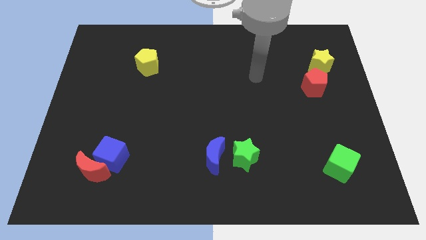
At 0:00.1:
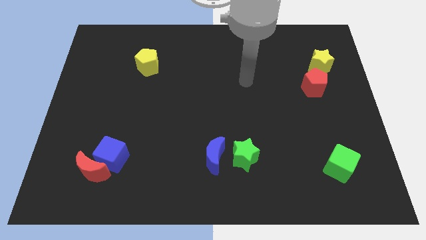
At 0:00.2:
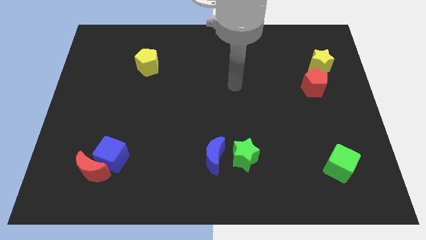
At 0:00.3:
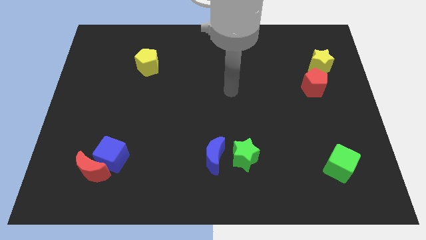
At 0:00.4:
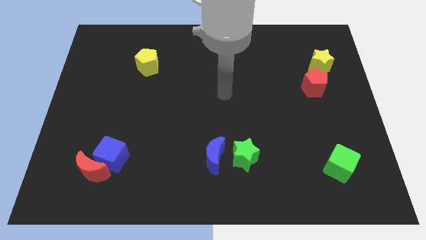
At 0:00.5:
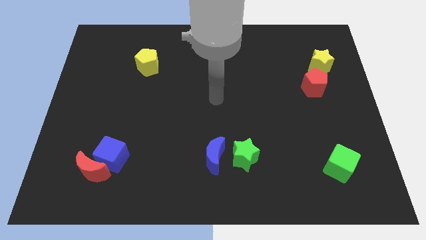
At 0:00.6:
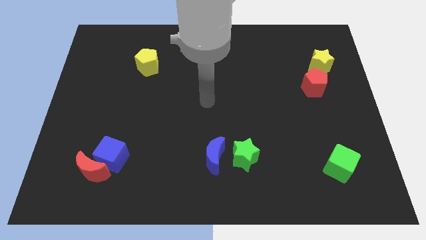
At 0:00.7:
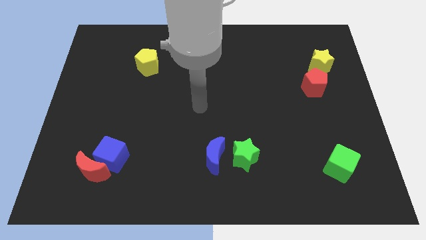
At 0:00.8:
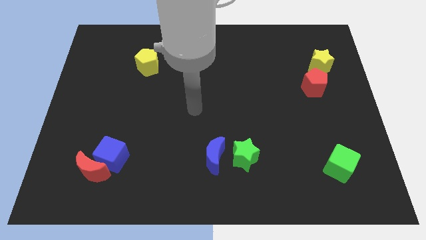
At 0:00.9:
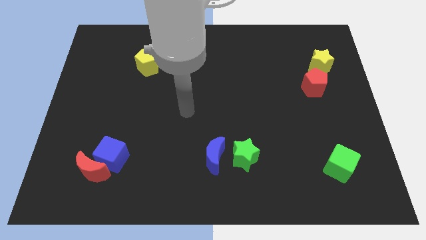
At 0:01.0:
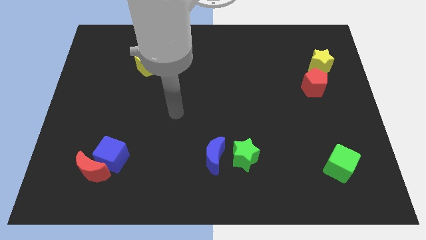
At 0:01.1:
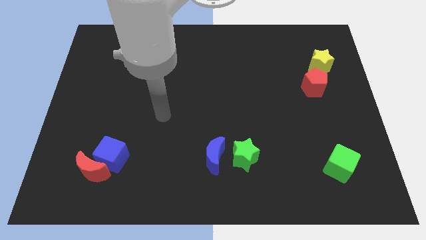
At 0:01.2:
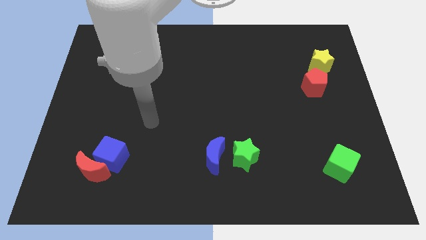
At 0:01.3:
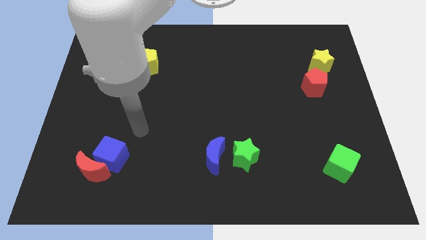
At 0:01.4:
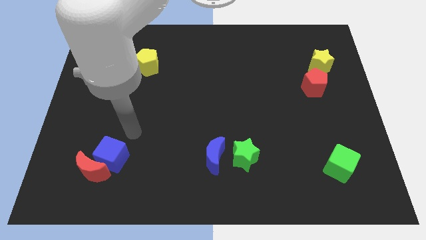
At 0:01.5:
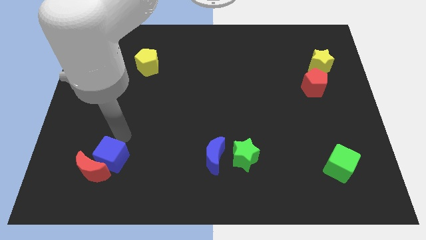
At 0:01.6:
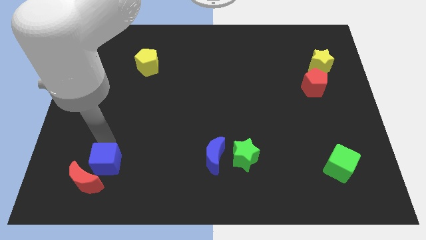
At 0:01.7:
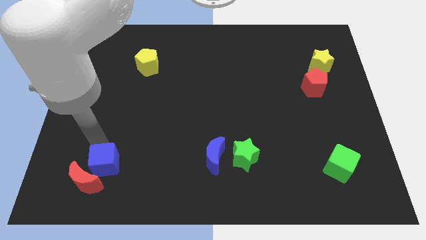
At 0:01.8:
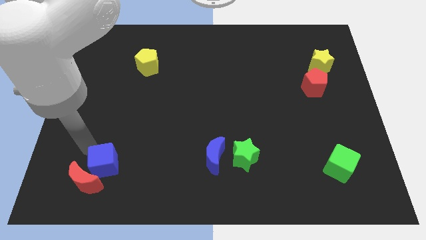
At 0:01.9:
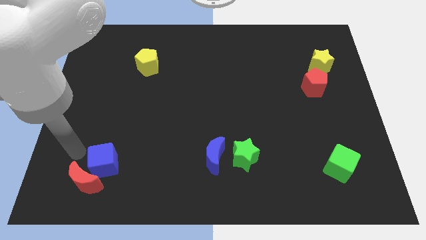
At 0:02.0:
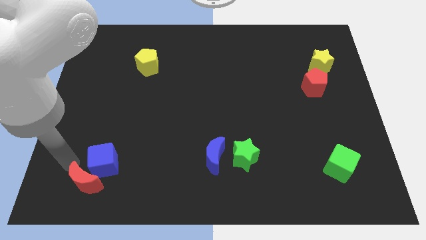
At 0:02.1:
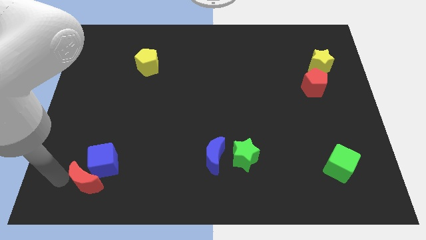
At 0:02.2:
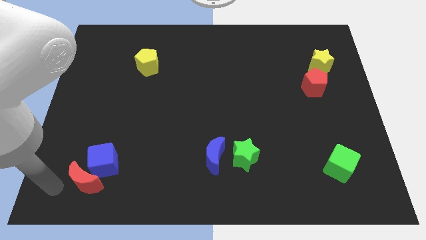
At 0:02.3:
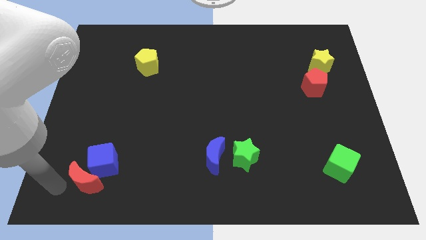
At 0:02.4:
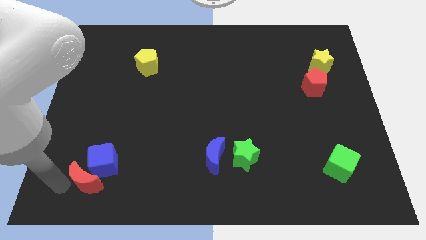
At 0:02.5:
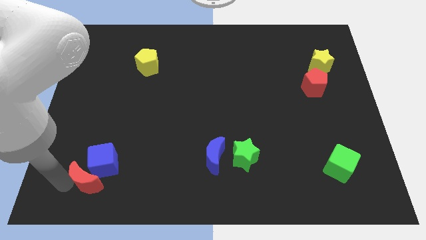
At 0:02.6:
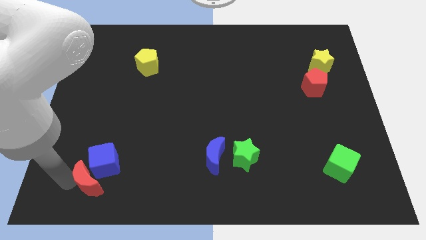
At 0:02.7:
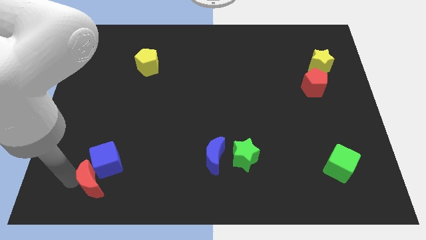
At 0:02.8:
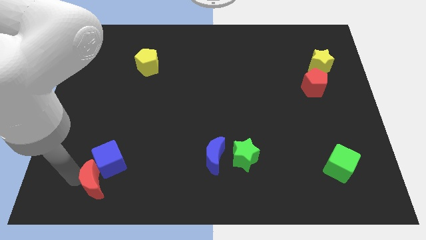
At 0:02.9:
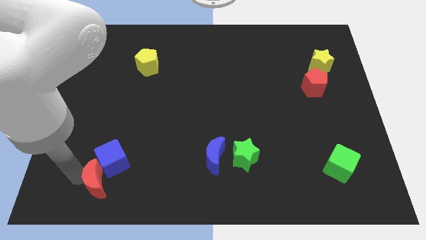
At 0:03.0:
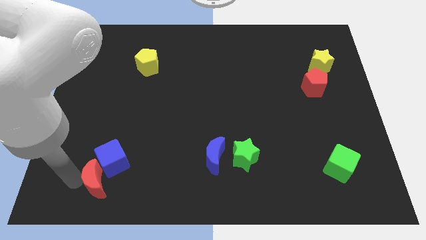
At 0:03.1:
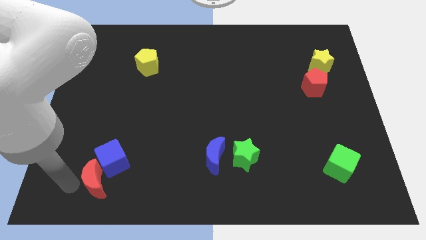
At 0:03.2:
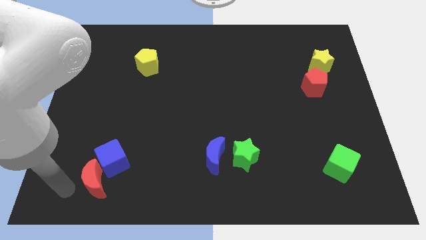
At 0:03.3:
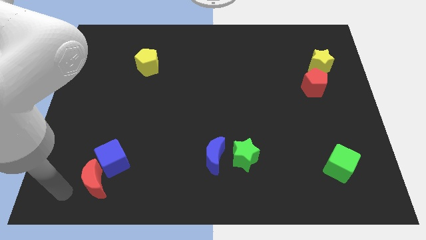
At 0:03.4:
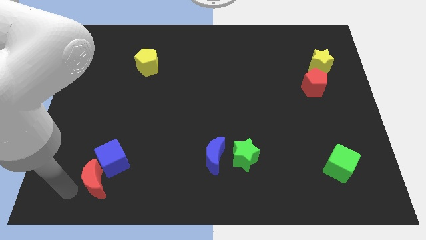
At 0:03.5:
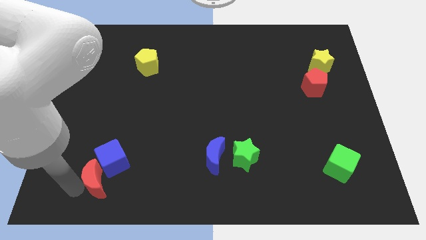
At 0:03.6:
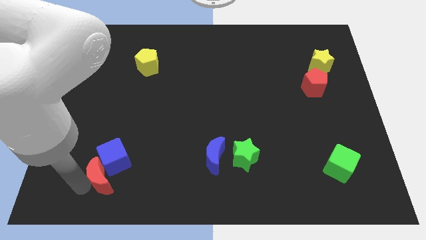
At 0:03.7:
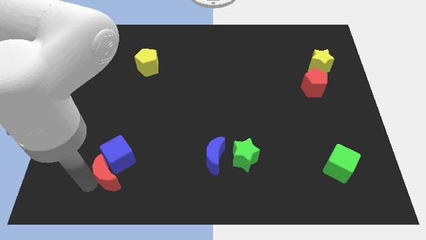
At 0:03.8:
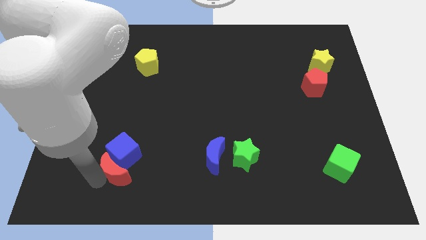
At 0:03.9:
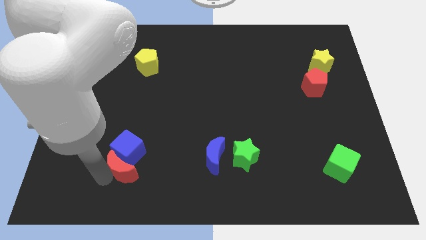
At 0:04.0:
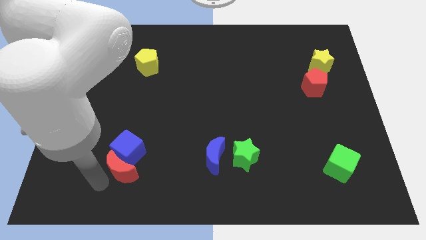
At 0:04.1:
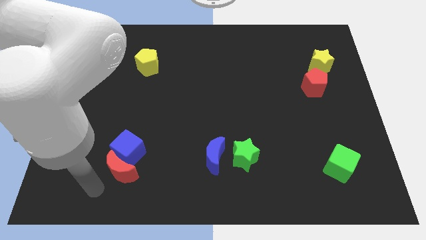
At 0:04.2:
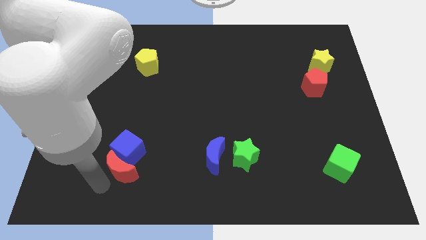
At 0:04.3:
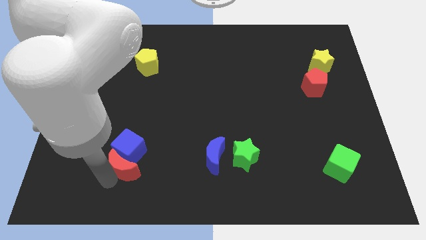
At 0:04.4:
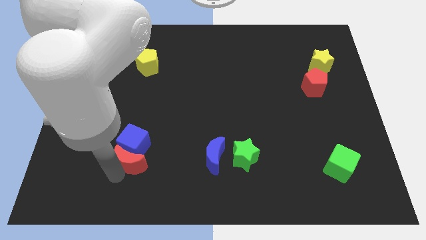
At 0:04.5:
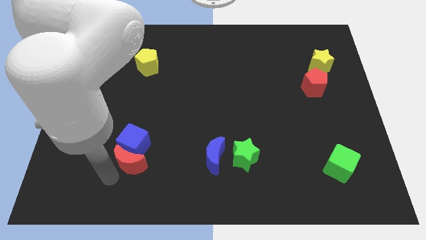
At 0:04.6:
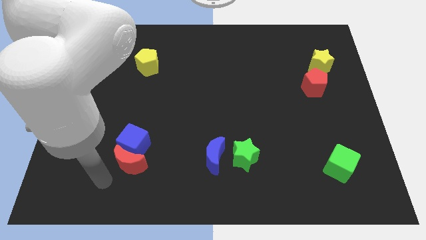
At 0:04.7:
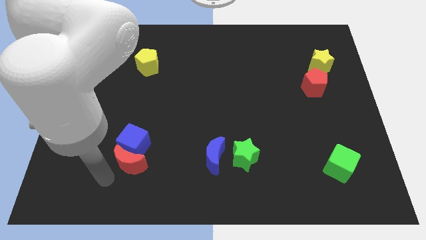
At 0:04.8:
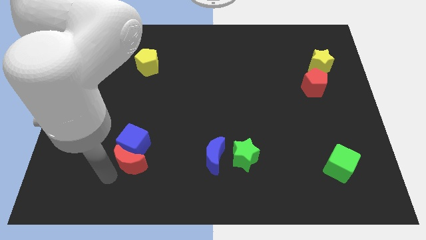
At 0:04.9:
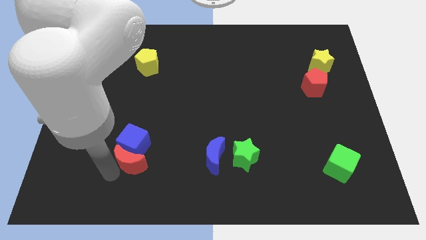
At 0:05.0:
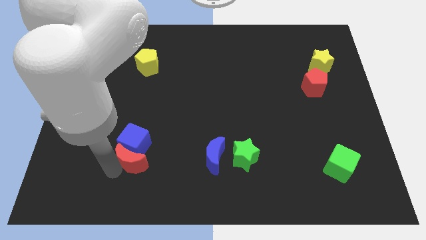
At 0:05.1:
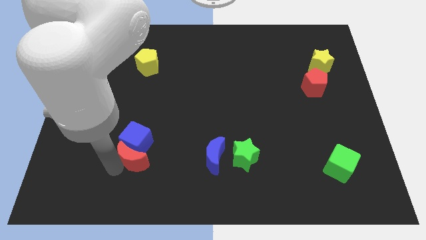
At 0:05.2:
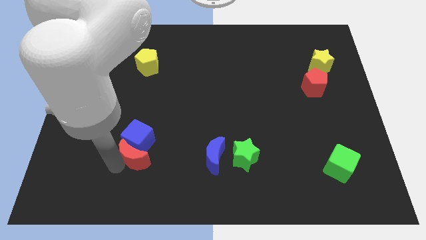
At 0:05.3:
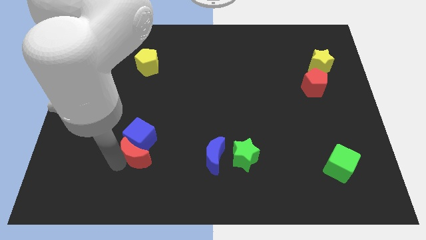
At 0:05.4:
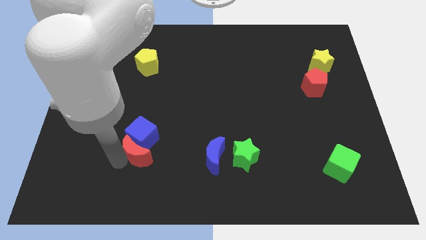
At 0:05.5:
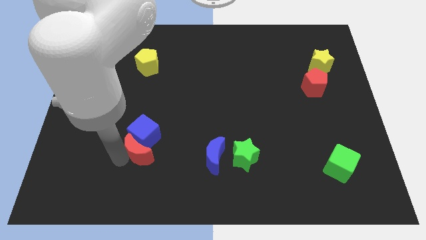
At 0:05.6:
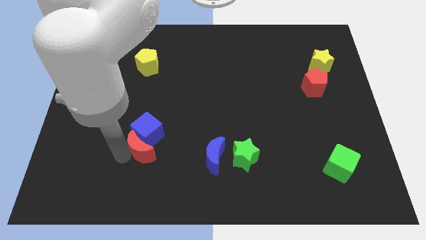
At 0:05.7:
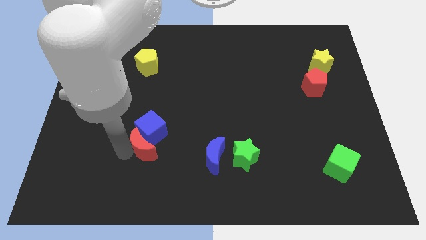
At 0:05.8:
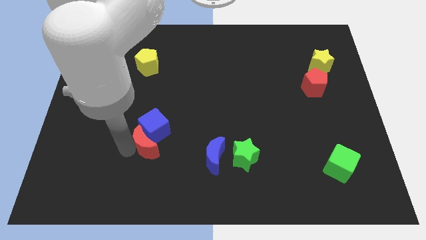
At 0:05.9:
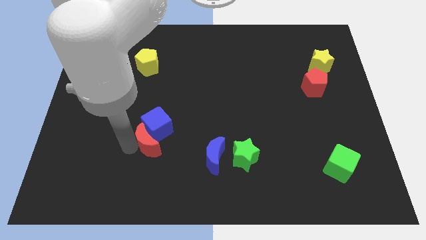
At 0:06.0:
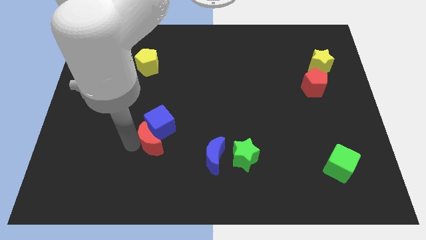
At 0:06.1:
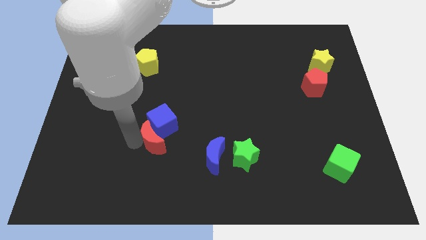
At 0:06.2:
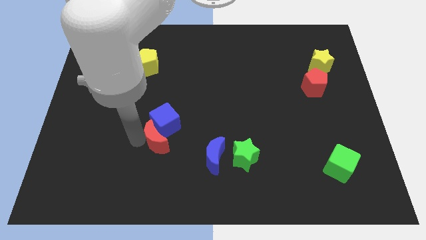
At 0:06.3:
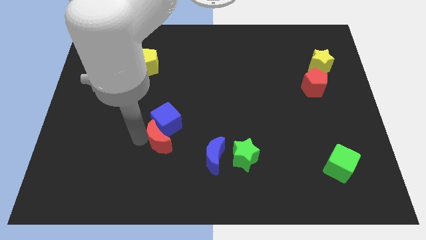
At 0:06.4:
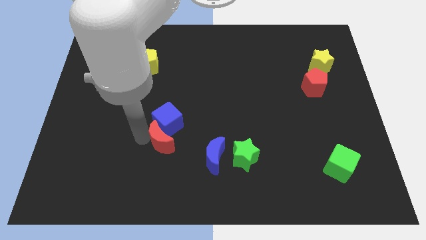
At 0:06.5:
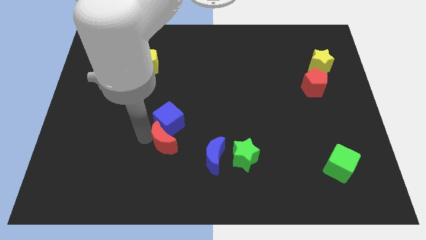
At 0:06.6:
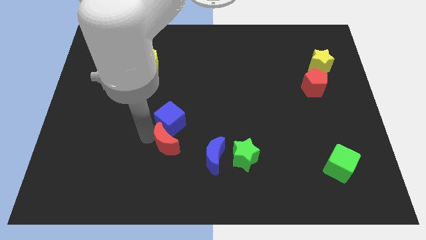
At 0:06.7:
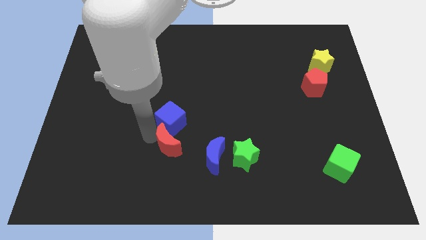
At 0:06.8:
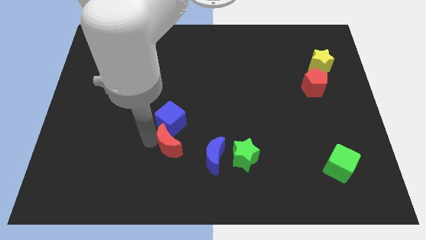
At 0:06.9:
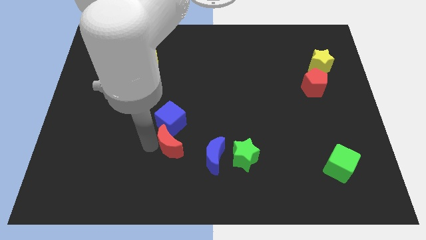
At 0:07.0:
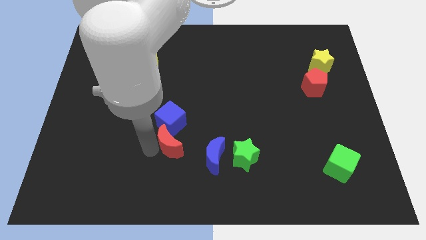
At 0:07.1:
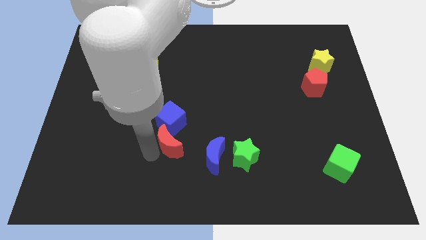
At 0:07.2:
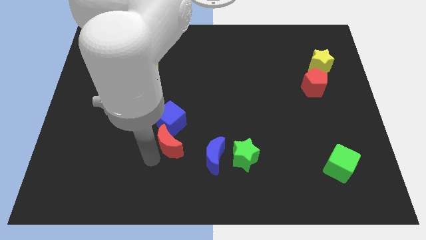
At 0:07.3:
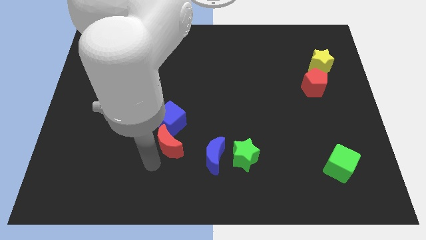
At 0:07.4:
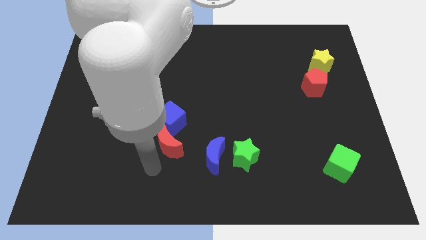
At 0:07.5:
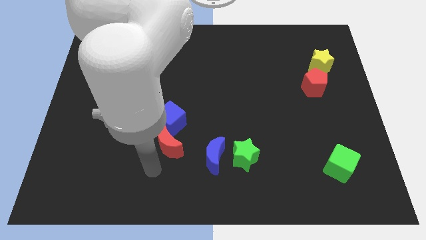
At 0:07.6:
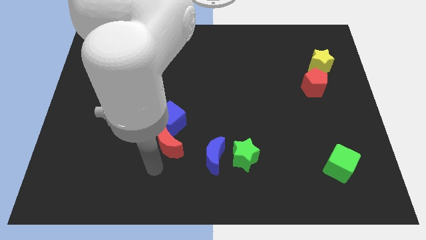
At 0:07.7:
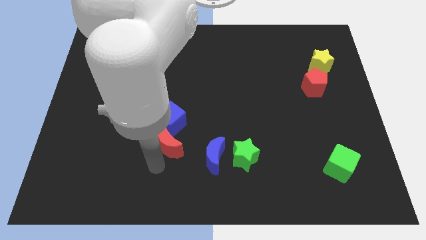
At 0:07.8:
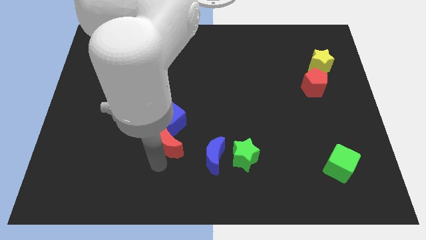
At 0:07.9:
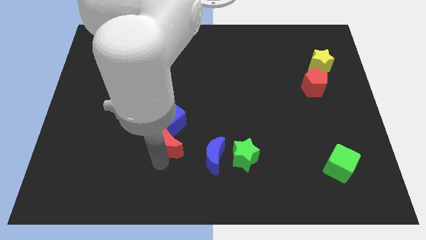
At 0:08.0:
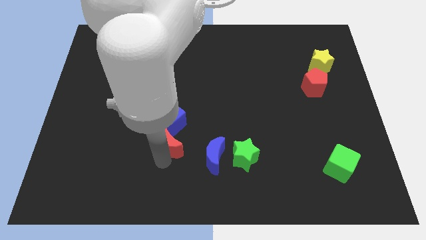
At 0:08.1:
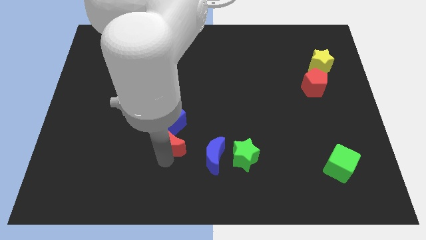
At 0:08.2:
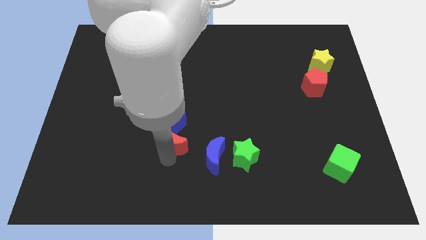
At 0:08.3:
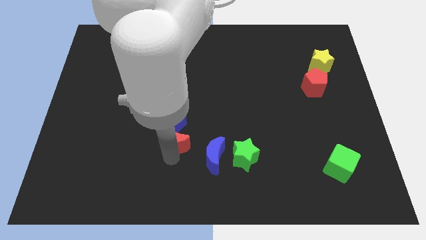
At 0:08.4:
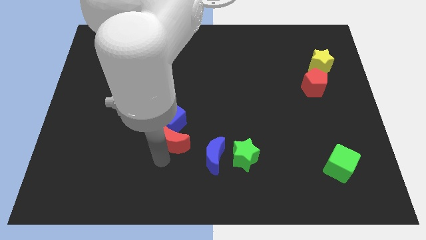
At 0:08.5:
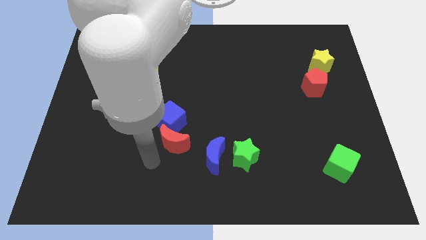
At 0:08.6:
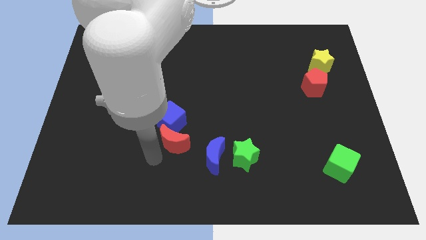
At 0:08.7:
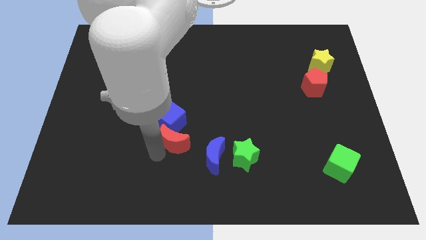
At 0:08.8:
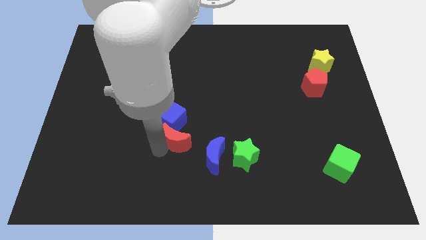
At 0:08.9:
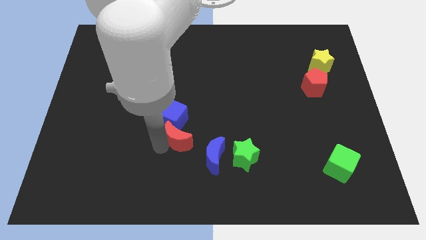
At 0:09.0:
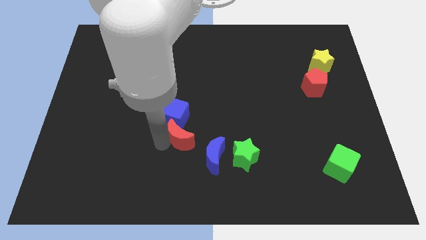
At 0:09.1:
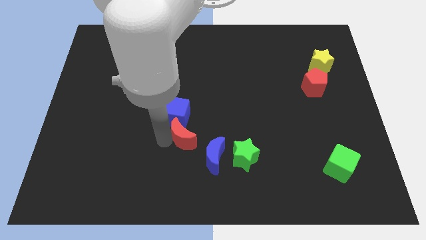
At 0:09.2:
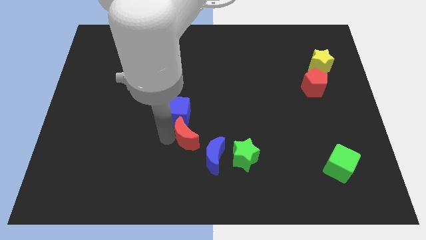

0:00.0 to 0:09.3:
move the red moon to the center
